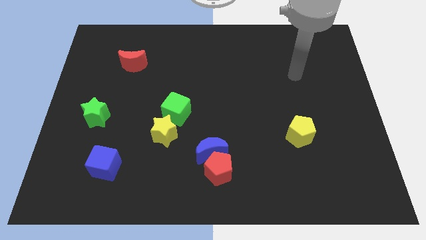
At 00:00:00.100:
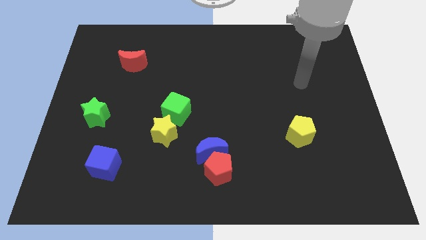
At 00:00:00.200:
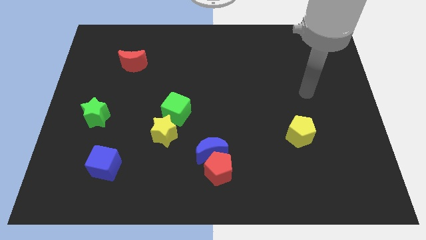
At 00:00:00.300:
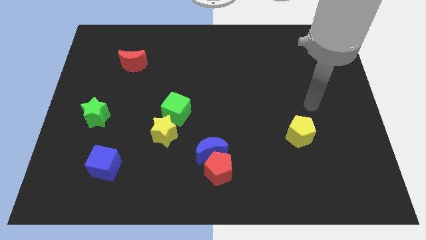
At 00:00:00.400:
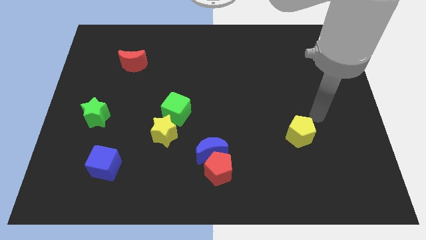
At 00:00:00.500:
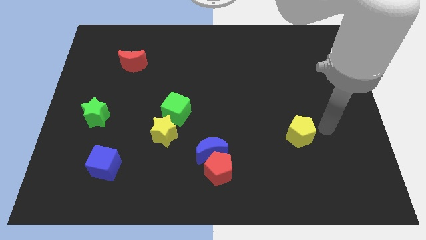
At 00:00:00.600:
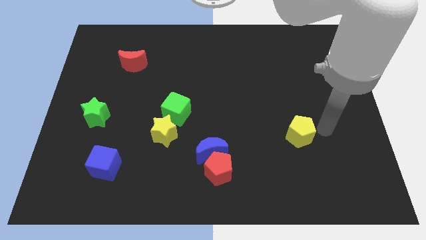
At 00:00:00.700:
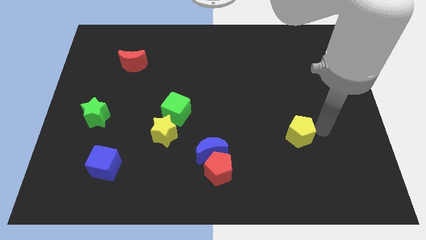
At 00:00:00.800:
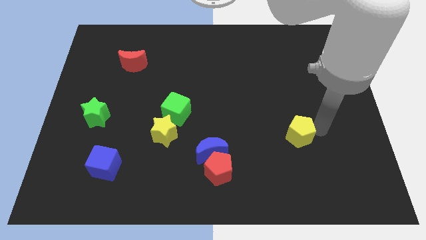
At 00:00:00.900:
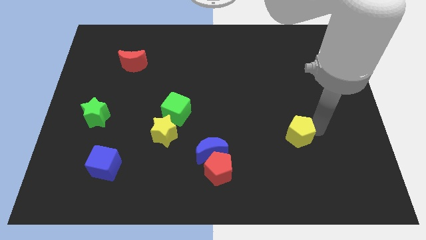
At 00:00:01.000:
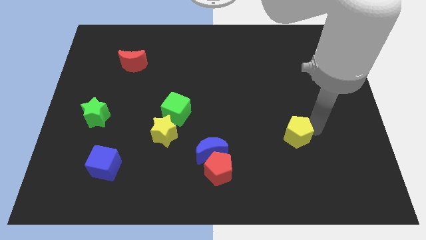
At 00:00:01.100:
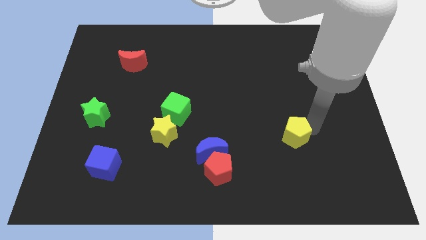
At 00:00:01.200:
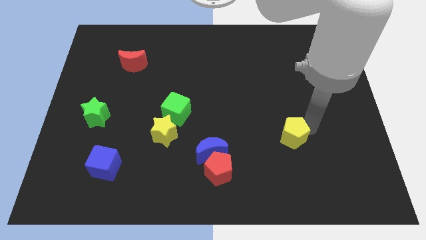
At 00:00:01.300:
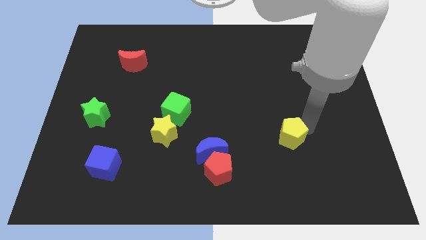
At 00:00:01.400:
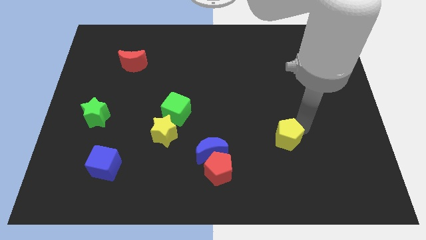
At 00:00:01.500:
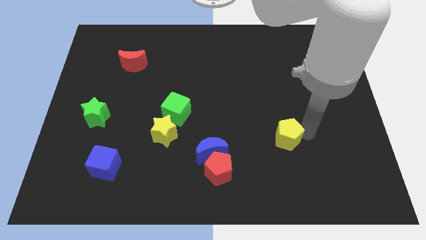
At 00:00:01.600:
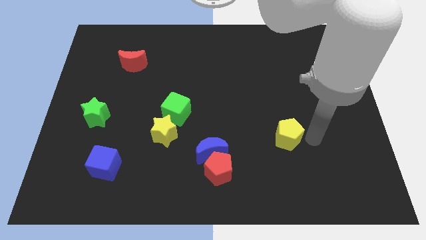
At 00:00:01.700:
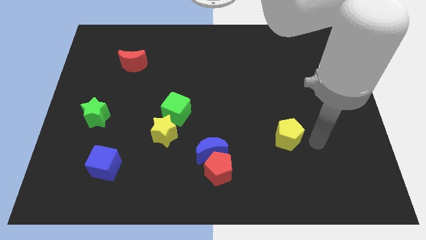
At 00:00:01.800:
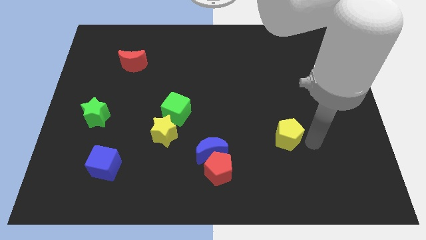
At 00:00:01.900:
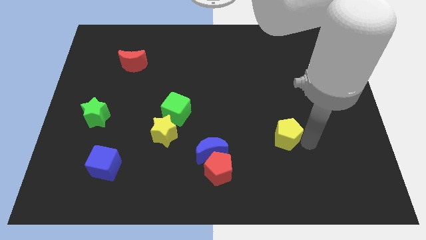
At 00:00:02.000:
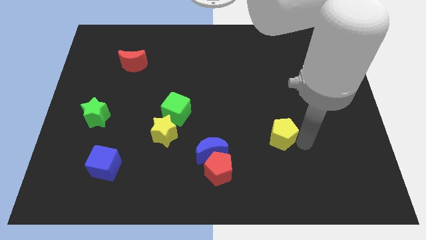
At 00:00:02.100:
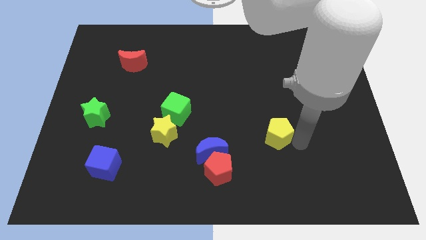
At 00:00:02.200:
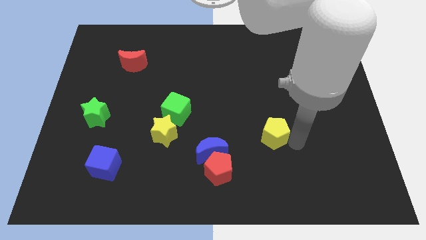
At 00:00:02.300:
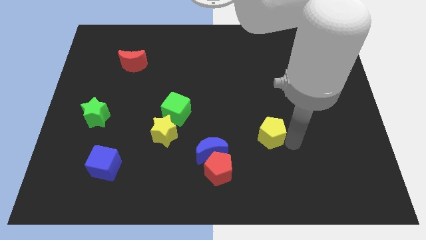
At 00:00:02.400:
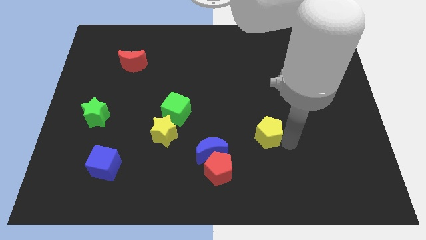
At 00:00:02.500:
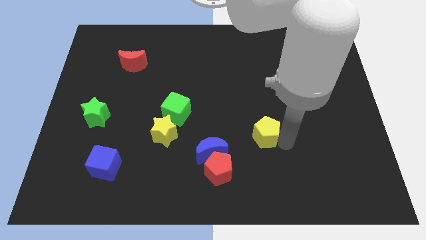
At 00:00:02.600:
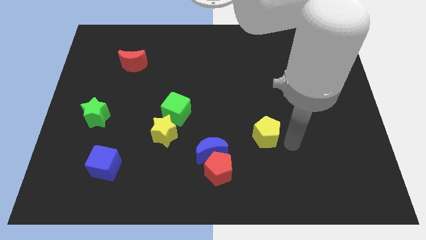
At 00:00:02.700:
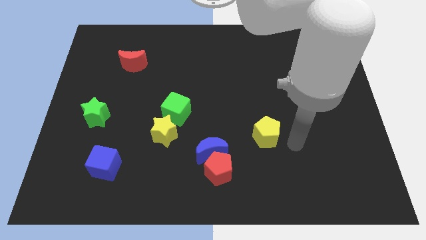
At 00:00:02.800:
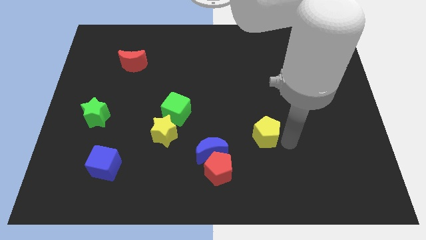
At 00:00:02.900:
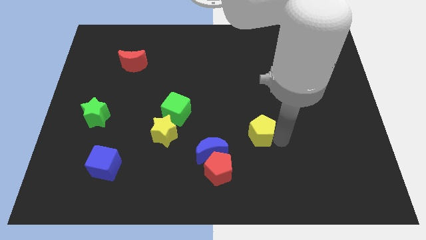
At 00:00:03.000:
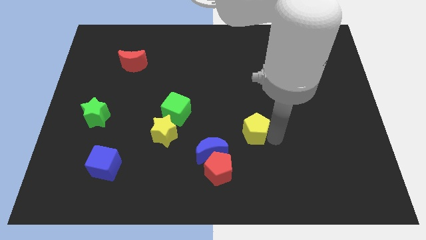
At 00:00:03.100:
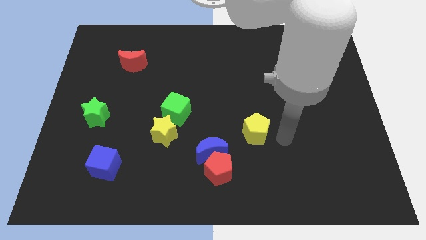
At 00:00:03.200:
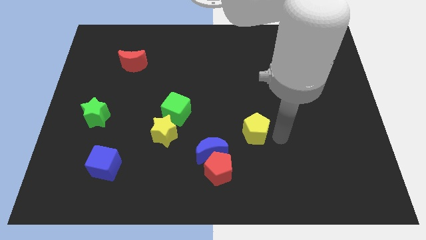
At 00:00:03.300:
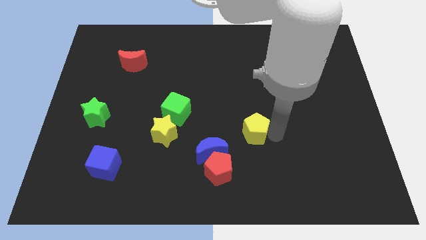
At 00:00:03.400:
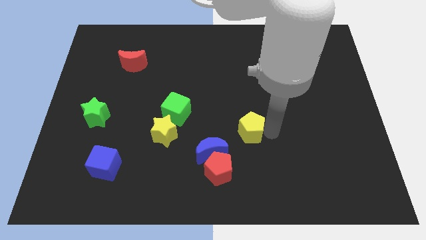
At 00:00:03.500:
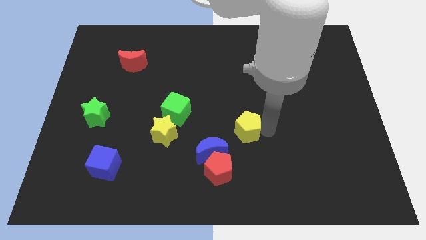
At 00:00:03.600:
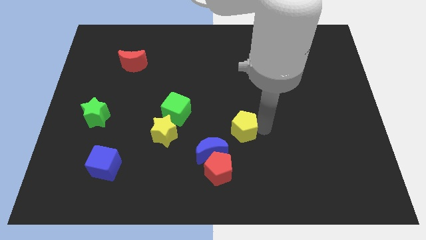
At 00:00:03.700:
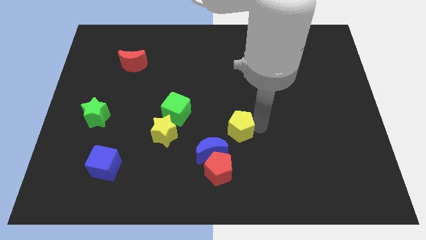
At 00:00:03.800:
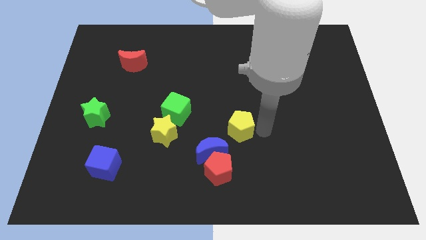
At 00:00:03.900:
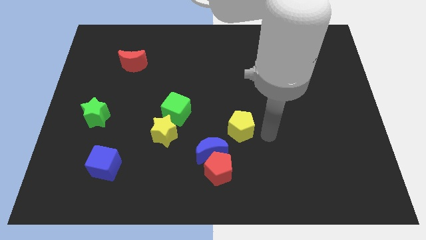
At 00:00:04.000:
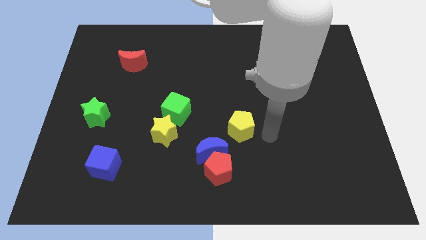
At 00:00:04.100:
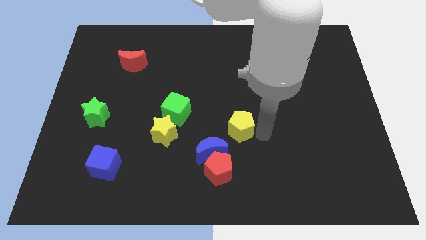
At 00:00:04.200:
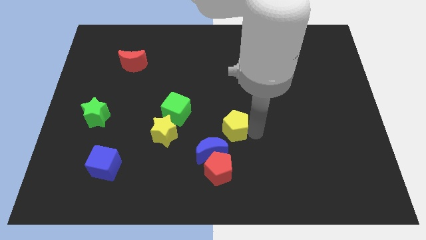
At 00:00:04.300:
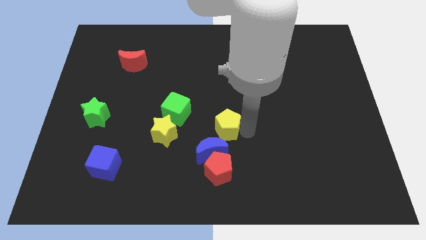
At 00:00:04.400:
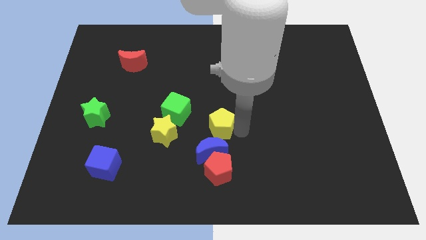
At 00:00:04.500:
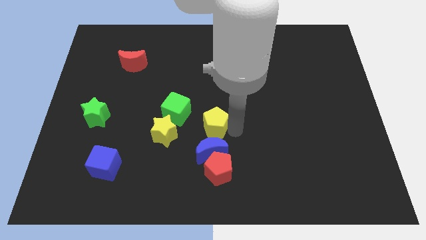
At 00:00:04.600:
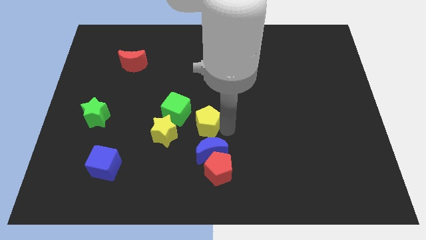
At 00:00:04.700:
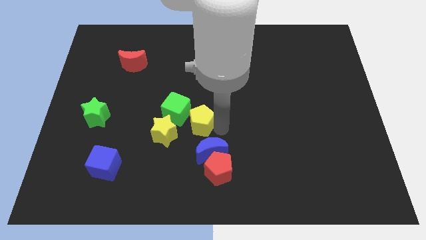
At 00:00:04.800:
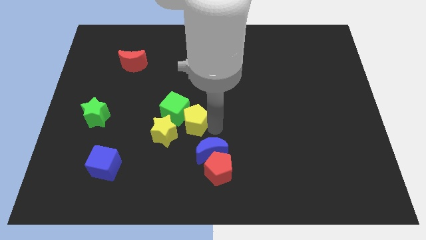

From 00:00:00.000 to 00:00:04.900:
move the yellow pentagon close to the green cube

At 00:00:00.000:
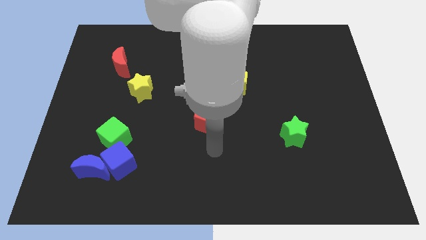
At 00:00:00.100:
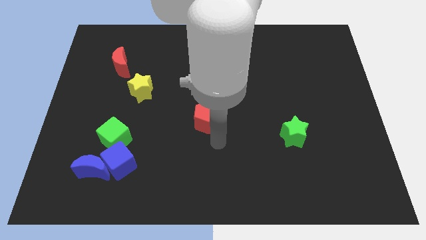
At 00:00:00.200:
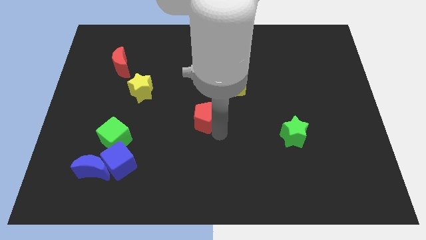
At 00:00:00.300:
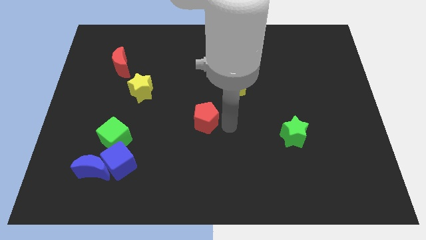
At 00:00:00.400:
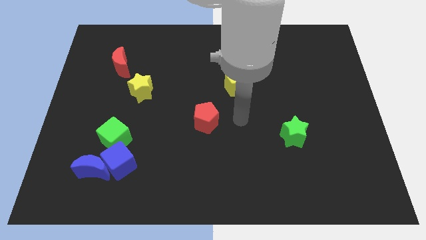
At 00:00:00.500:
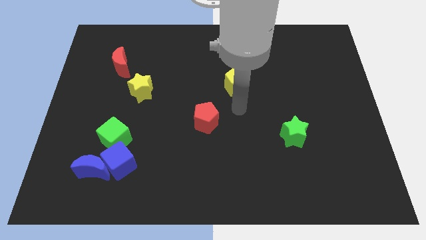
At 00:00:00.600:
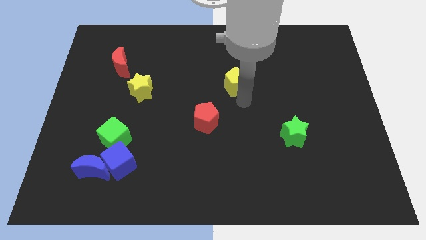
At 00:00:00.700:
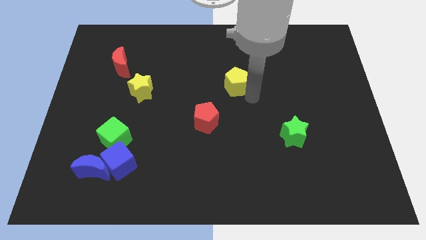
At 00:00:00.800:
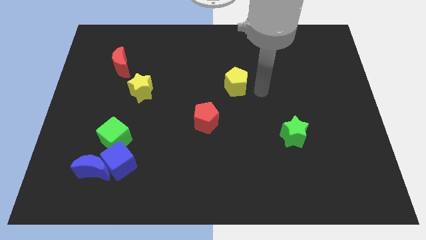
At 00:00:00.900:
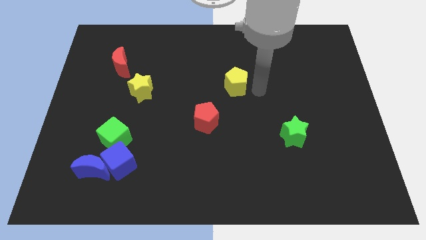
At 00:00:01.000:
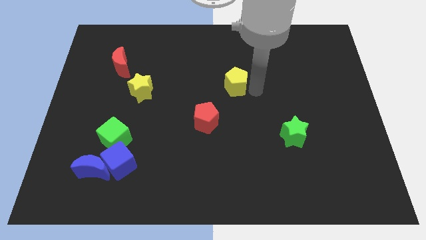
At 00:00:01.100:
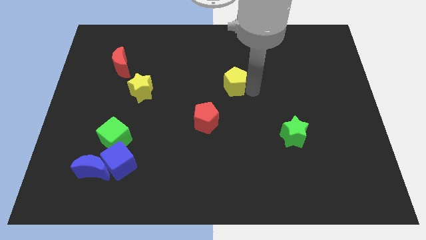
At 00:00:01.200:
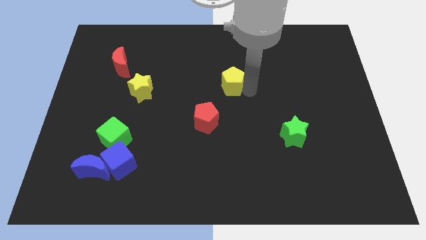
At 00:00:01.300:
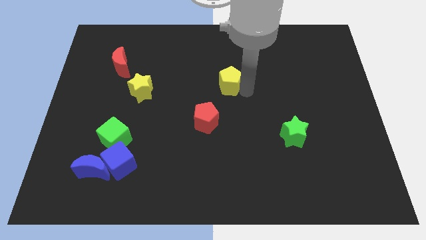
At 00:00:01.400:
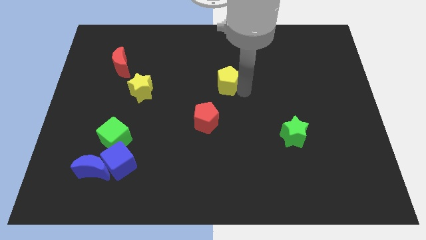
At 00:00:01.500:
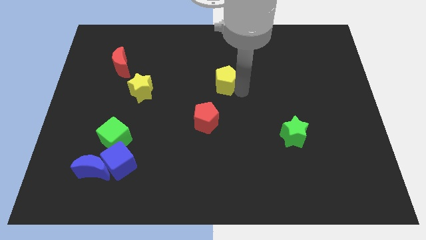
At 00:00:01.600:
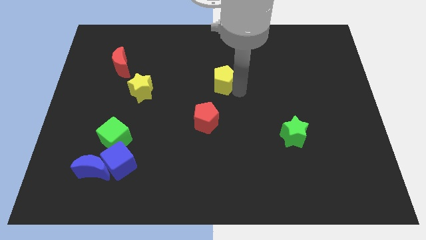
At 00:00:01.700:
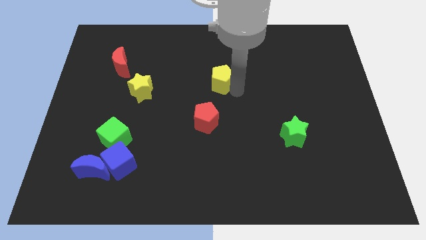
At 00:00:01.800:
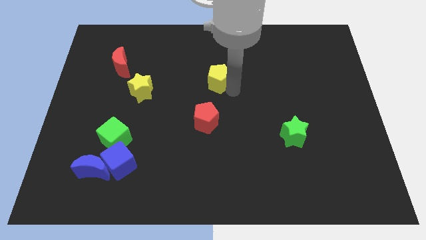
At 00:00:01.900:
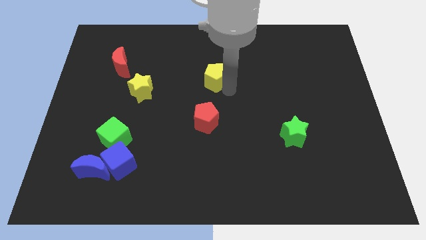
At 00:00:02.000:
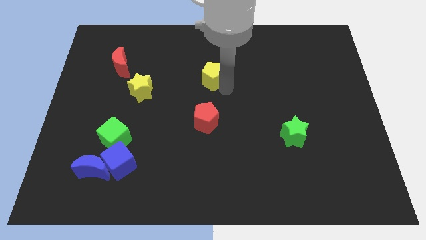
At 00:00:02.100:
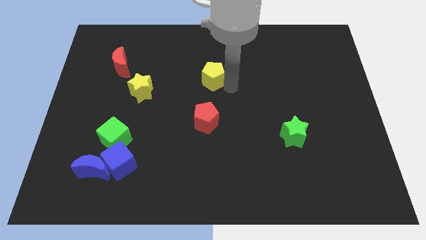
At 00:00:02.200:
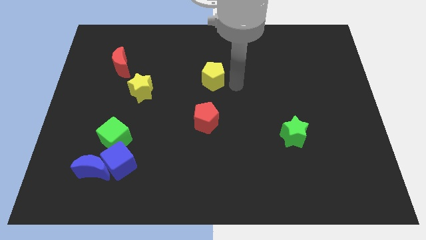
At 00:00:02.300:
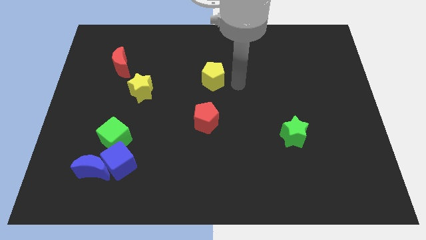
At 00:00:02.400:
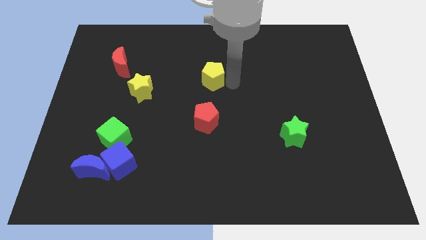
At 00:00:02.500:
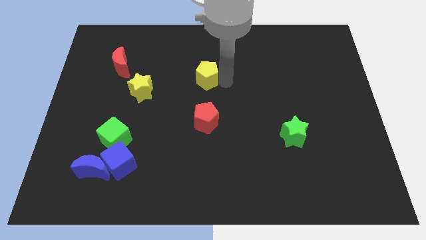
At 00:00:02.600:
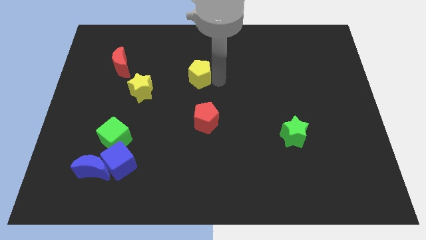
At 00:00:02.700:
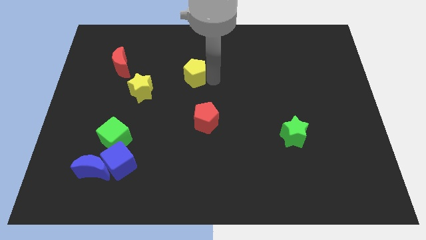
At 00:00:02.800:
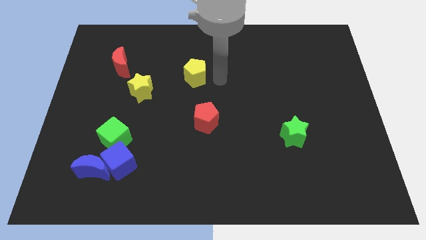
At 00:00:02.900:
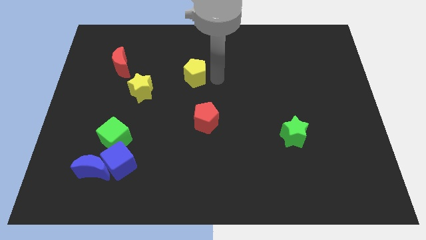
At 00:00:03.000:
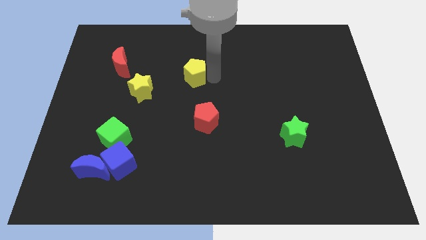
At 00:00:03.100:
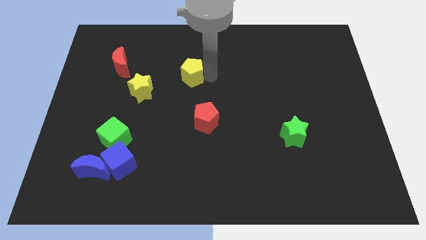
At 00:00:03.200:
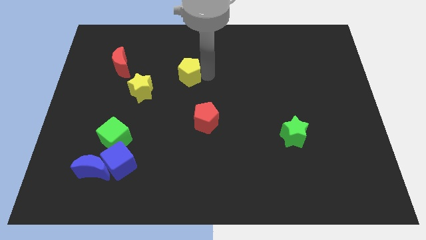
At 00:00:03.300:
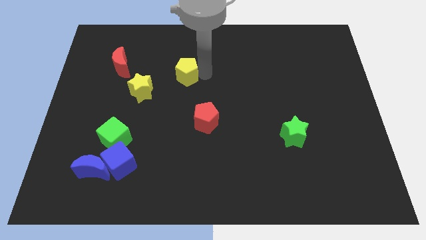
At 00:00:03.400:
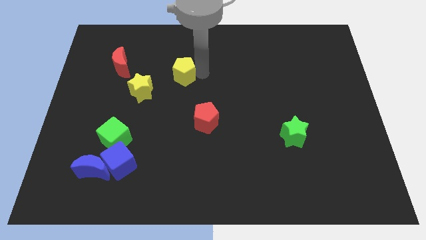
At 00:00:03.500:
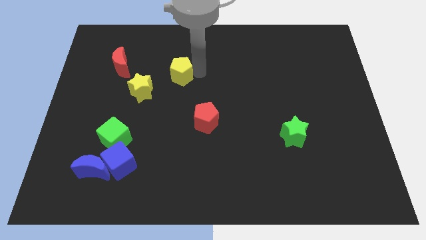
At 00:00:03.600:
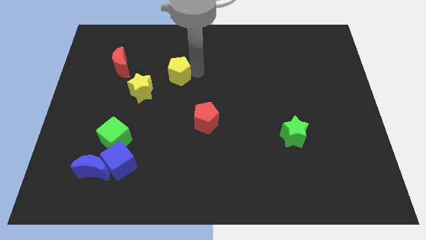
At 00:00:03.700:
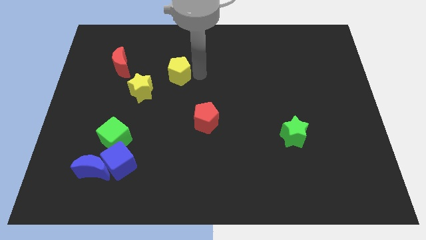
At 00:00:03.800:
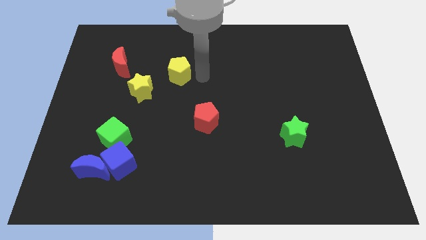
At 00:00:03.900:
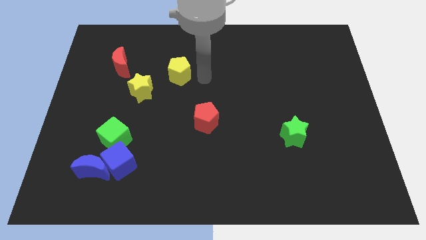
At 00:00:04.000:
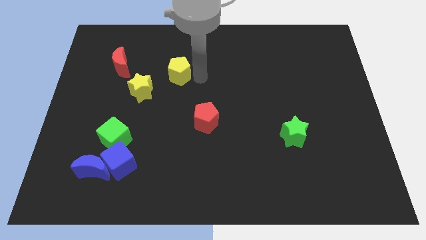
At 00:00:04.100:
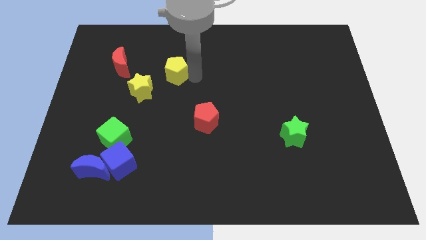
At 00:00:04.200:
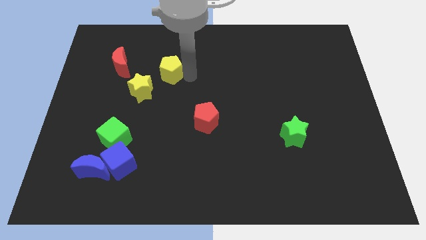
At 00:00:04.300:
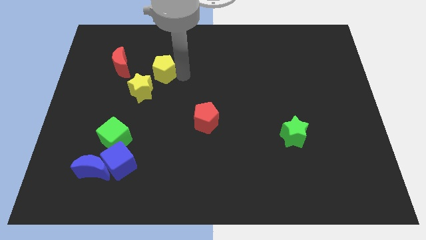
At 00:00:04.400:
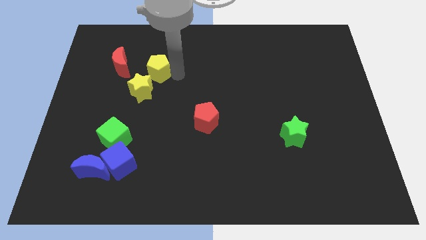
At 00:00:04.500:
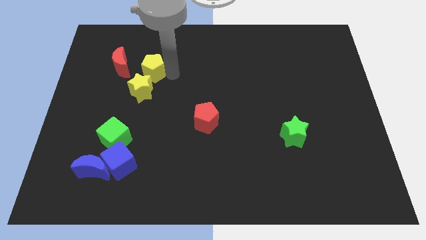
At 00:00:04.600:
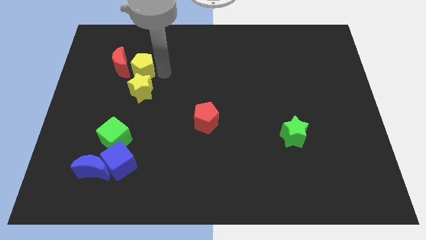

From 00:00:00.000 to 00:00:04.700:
move the yellow pentagon close to the red moon
